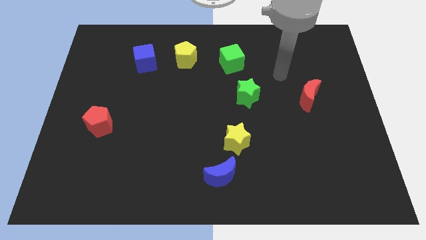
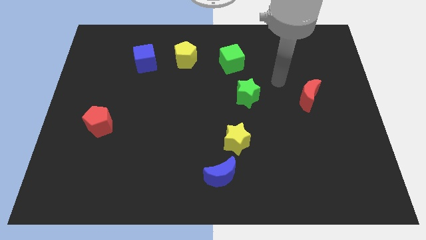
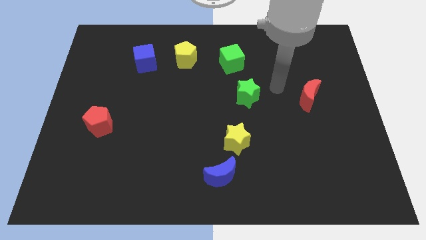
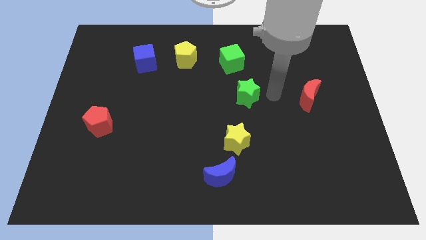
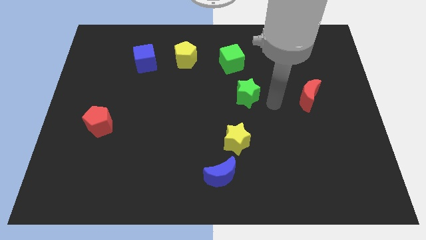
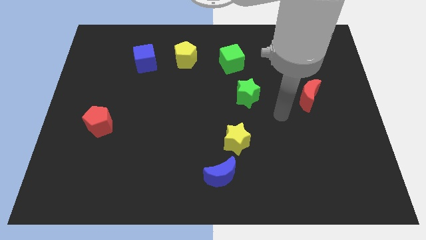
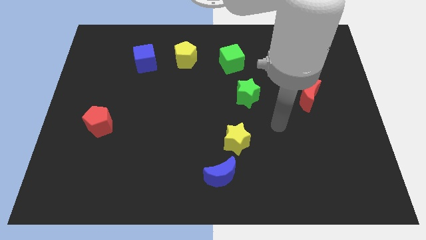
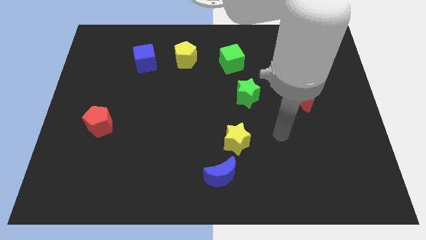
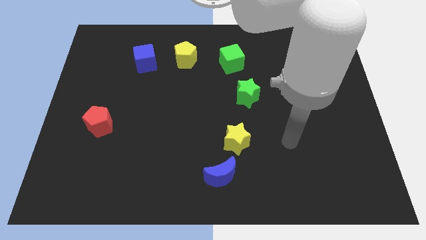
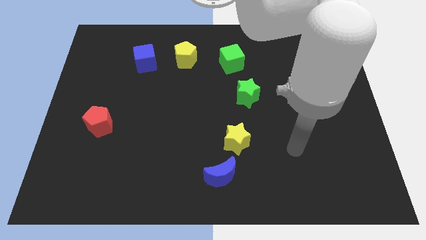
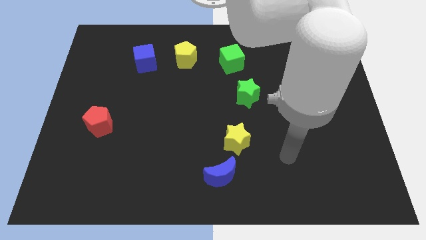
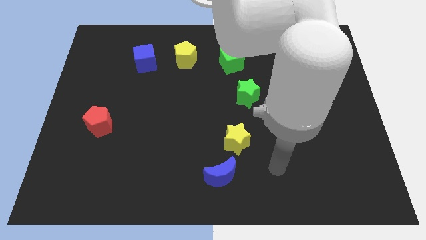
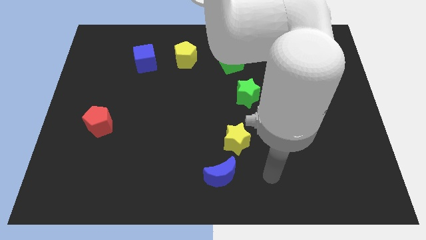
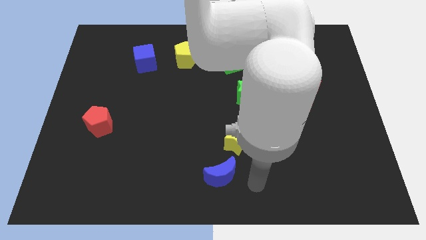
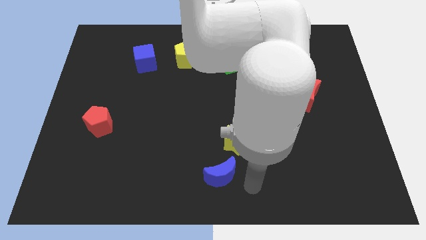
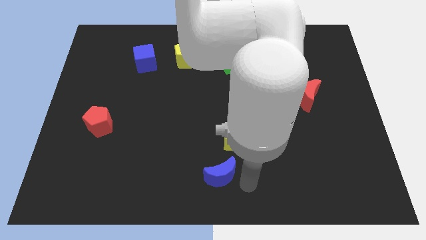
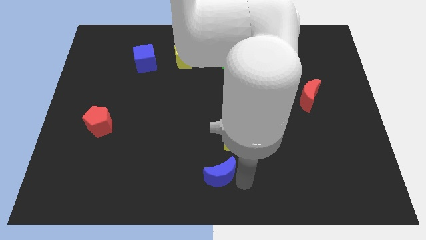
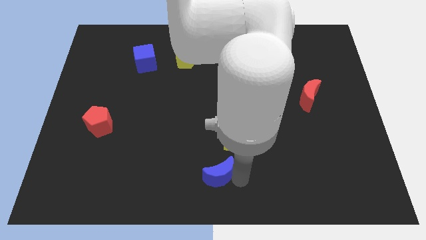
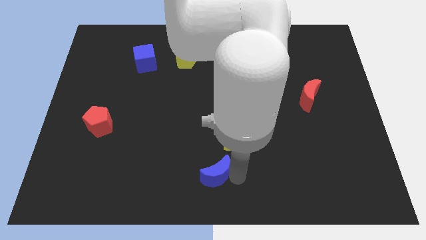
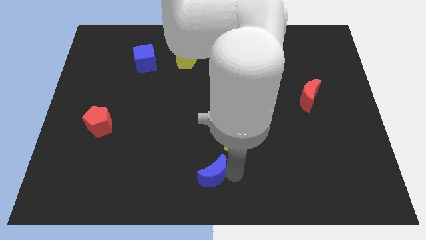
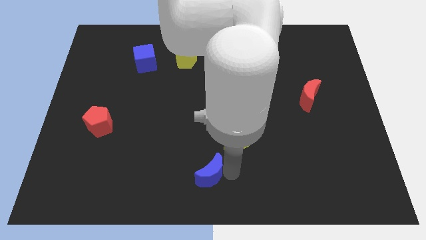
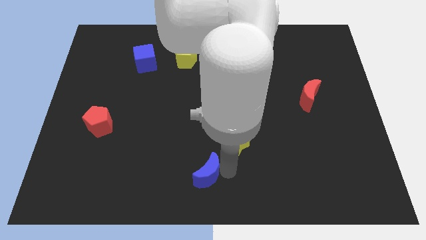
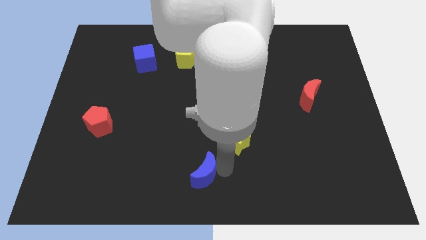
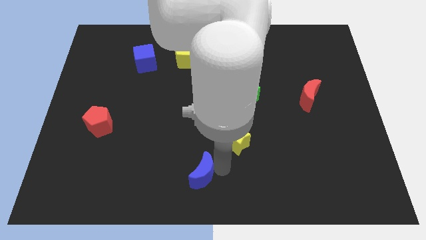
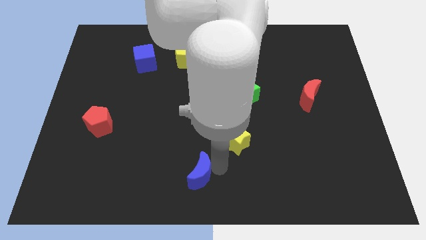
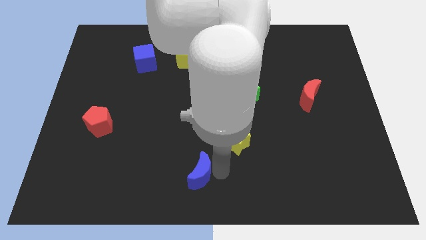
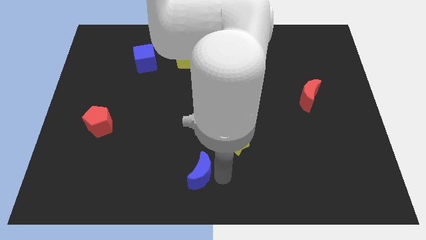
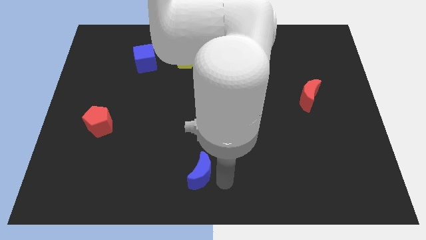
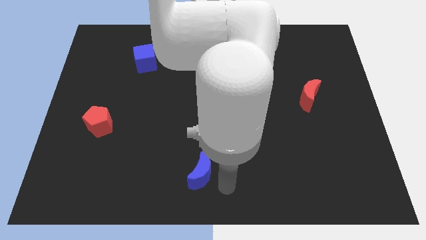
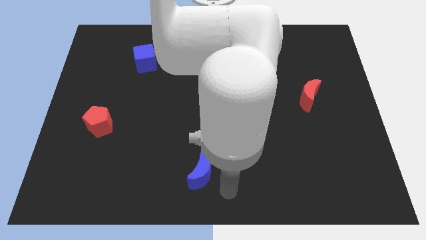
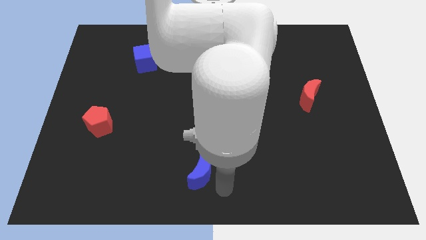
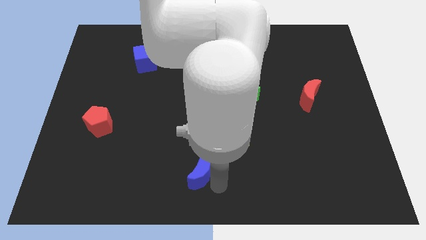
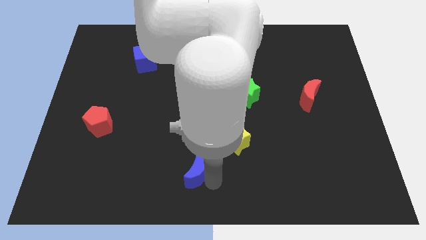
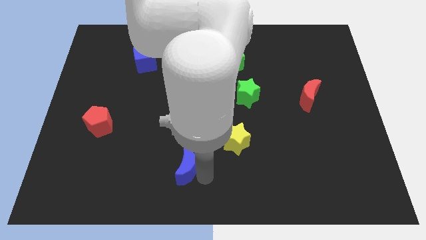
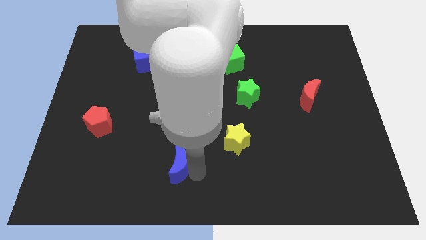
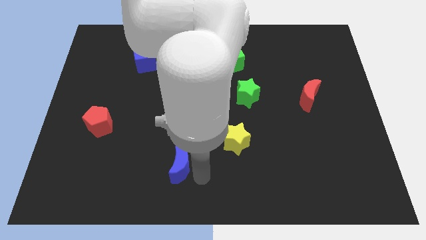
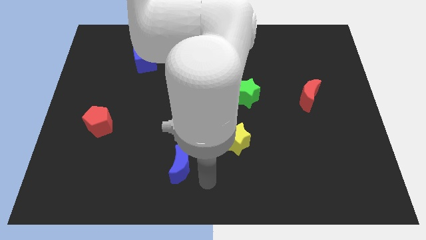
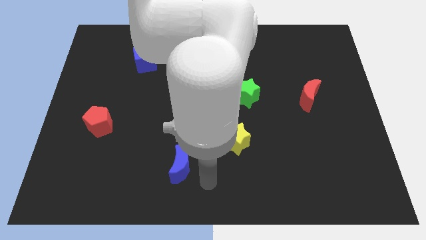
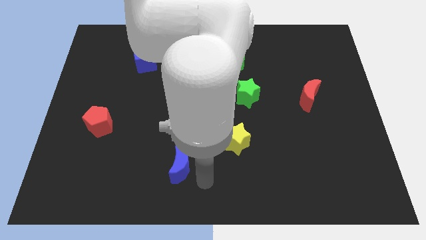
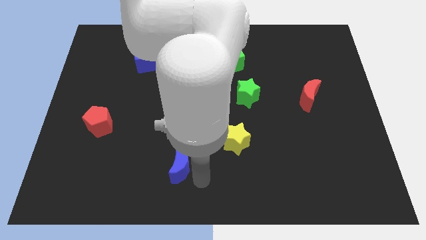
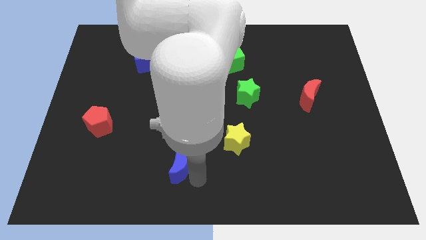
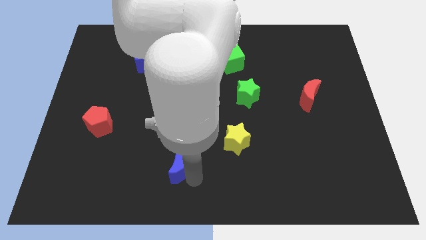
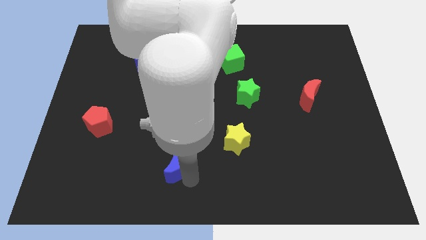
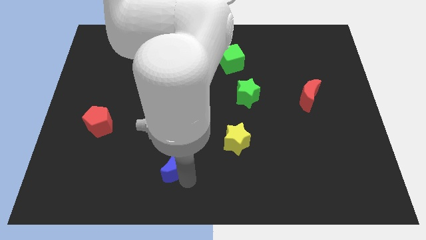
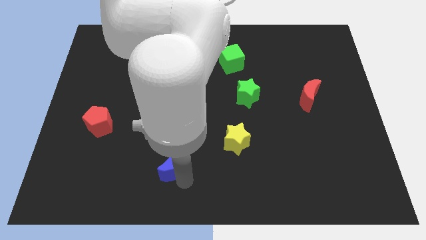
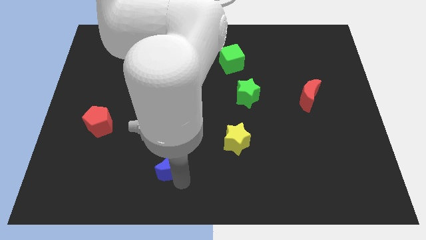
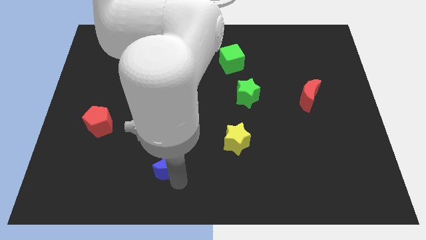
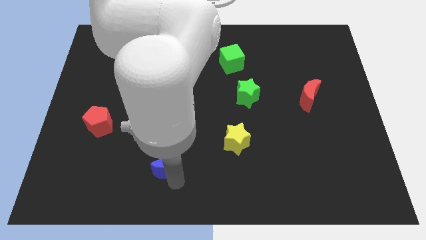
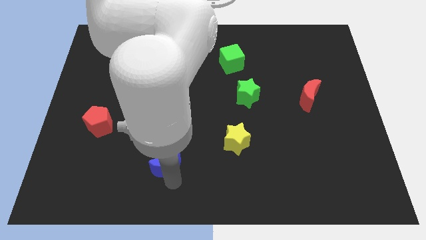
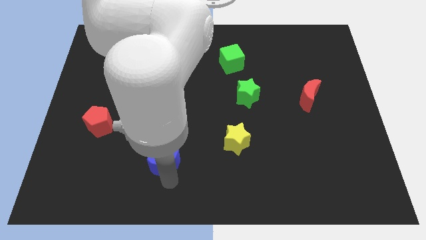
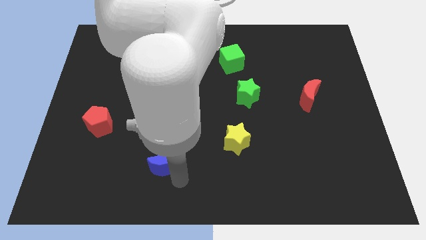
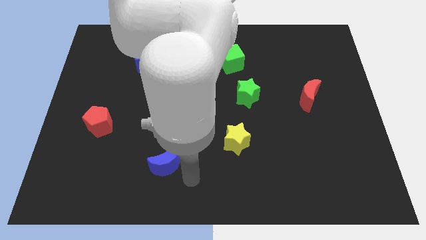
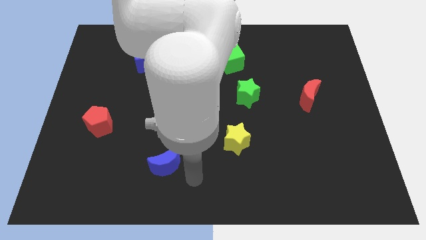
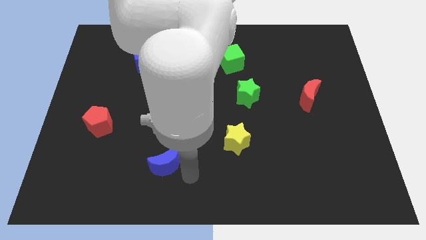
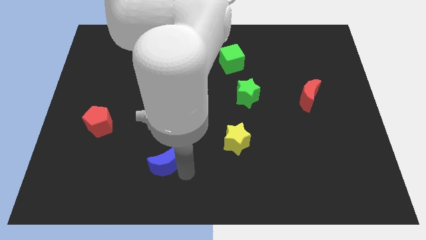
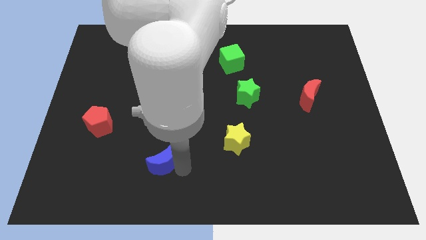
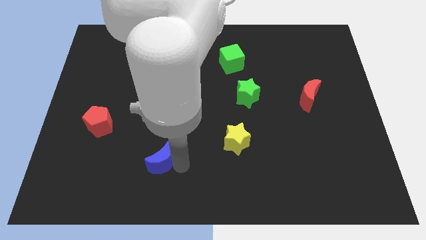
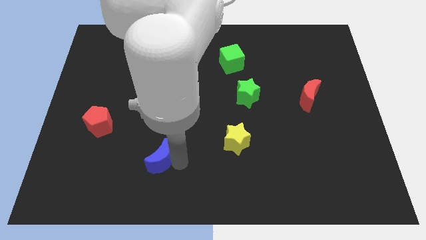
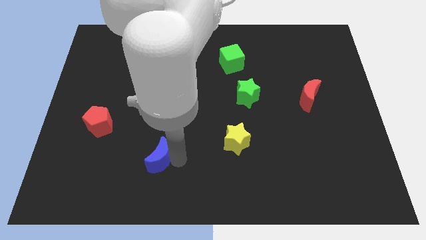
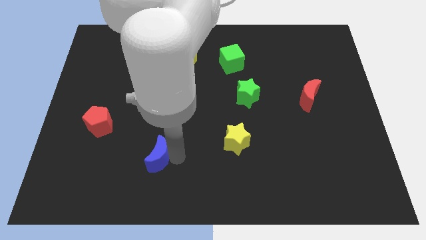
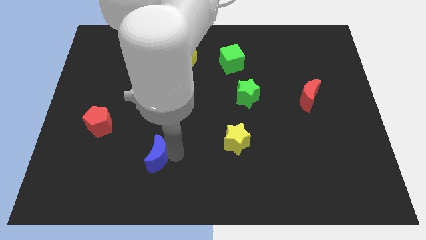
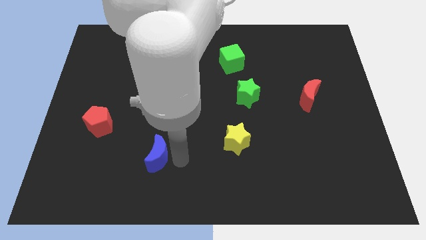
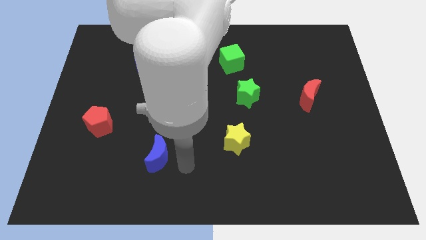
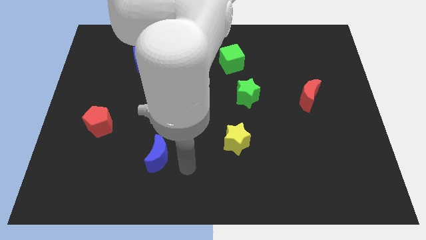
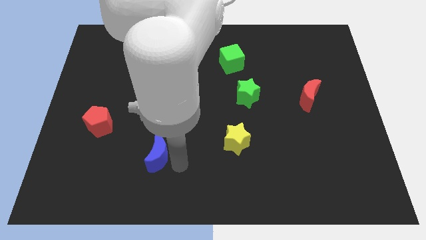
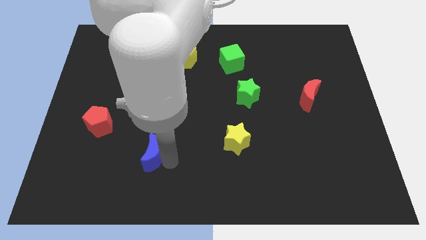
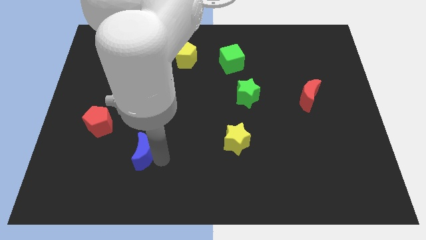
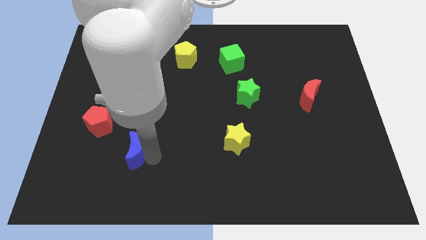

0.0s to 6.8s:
move the blue moon to the bottom right of the red pentagon
